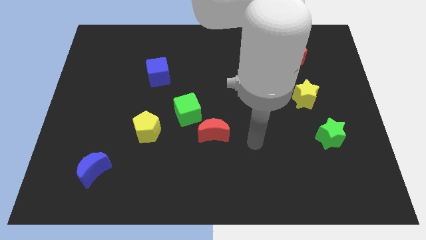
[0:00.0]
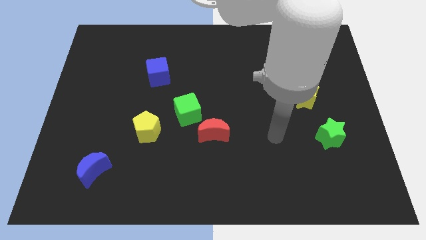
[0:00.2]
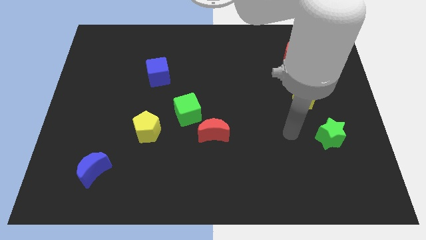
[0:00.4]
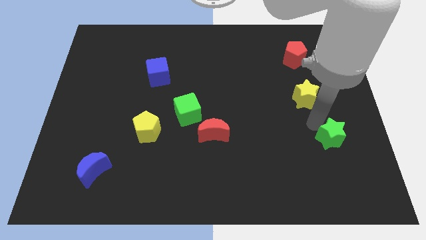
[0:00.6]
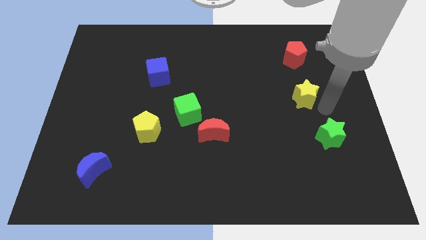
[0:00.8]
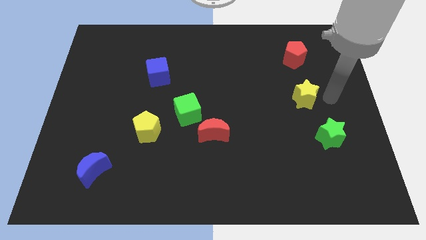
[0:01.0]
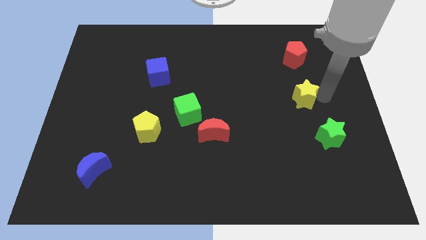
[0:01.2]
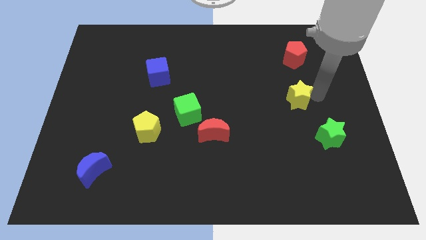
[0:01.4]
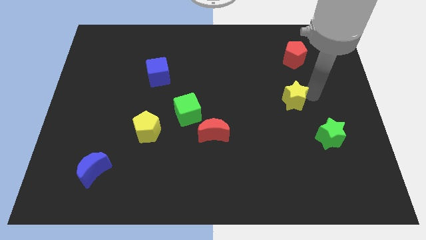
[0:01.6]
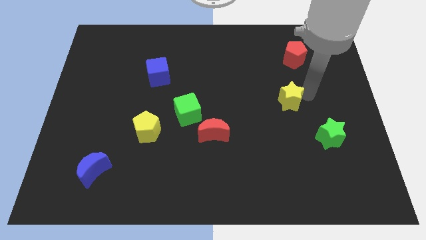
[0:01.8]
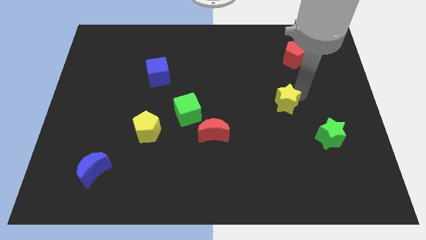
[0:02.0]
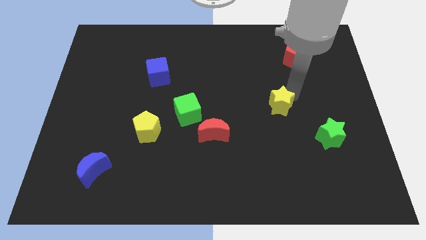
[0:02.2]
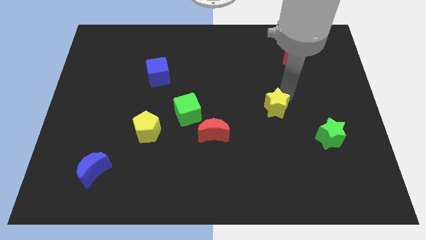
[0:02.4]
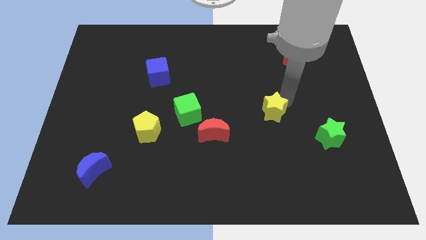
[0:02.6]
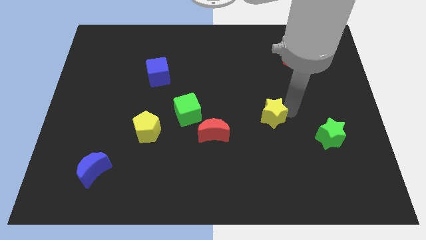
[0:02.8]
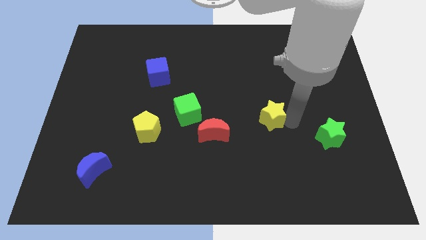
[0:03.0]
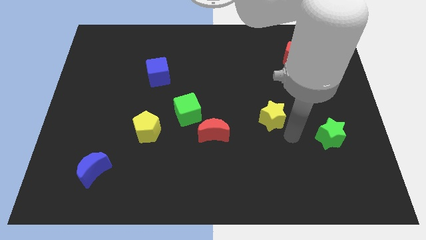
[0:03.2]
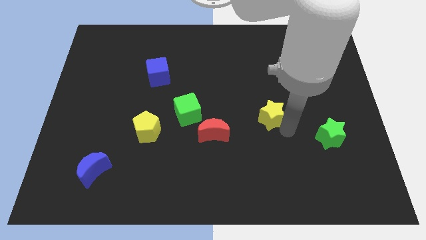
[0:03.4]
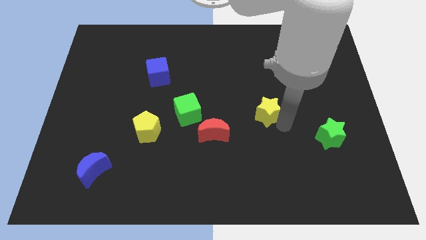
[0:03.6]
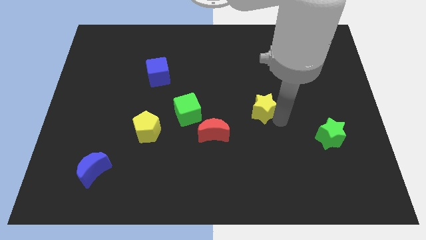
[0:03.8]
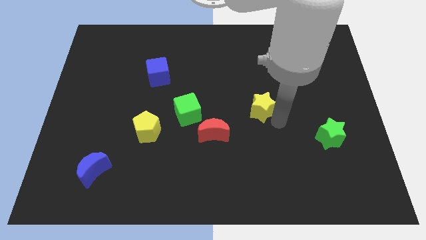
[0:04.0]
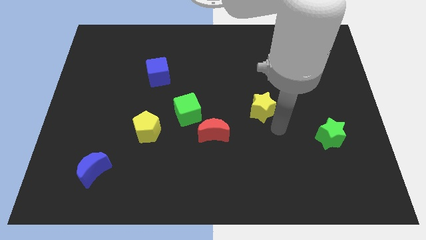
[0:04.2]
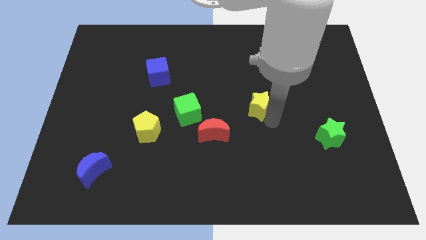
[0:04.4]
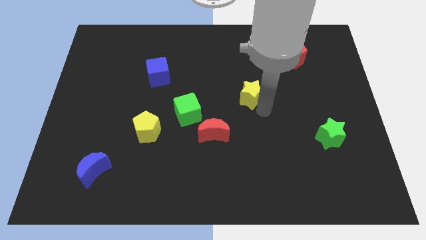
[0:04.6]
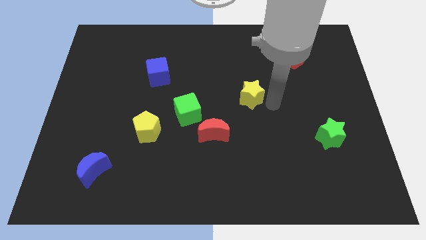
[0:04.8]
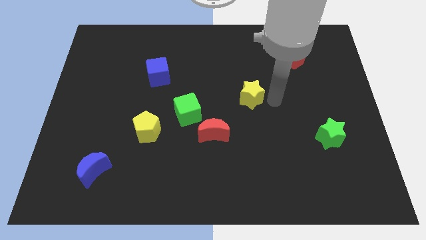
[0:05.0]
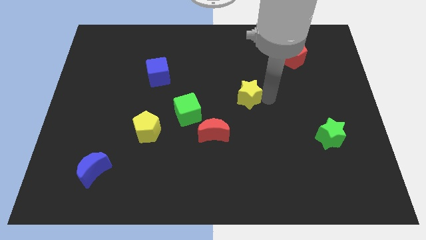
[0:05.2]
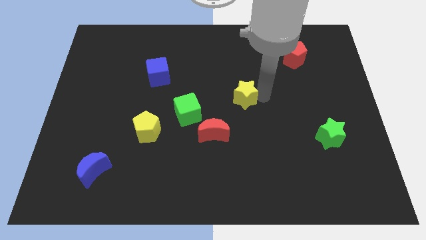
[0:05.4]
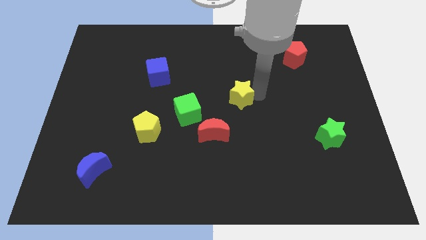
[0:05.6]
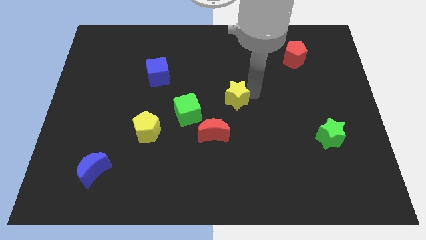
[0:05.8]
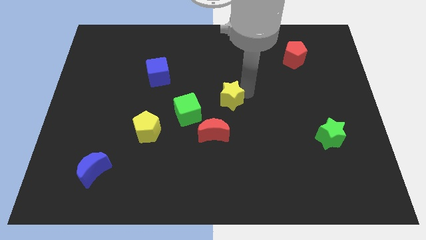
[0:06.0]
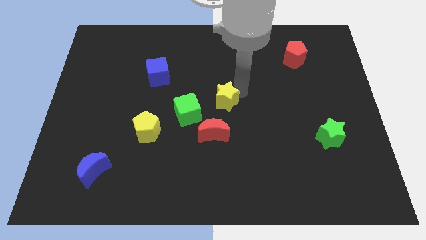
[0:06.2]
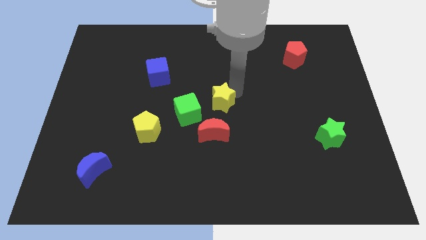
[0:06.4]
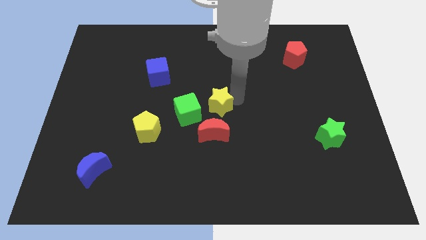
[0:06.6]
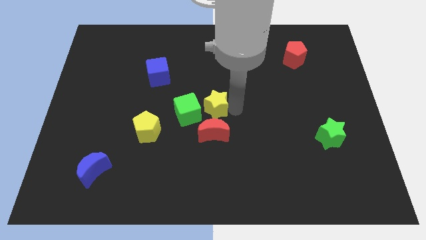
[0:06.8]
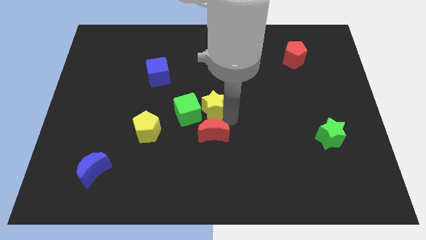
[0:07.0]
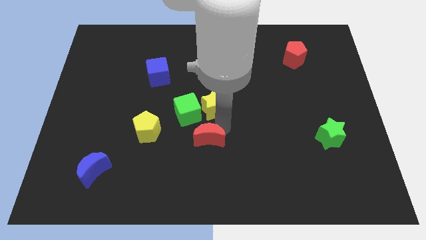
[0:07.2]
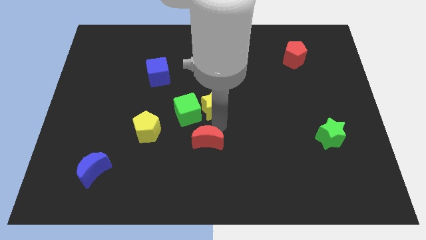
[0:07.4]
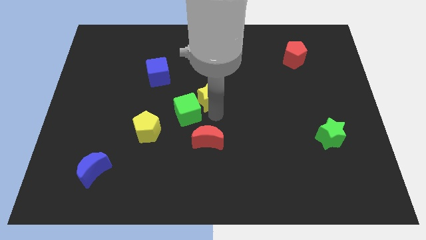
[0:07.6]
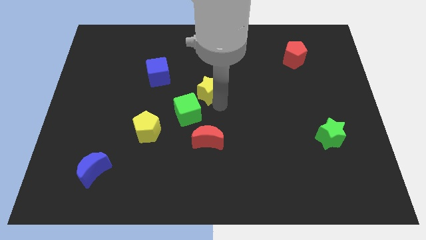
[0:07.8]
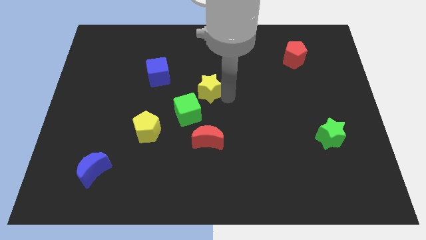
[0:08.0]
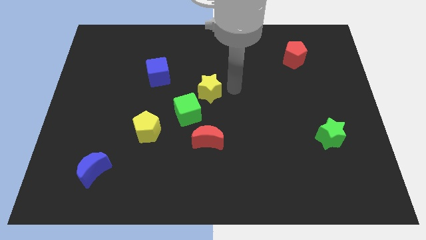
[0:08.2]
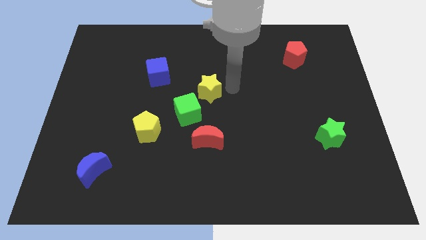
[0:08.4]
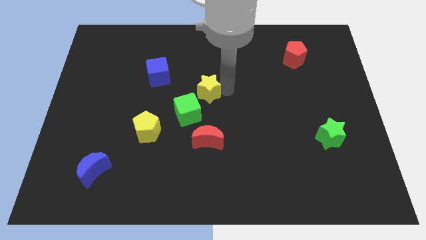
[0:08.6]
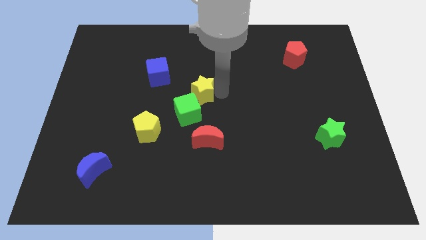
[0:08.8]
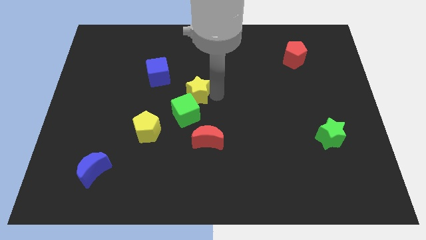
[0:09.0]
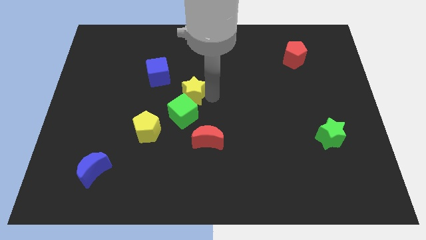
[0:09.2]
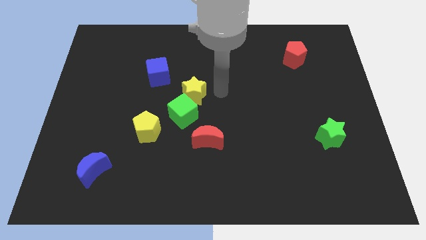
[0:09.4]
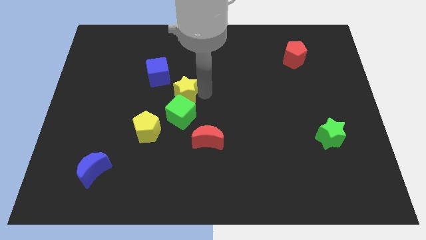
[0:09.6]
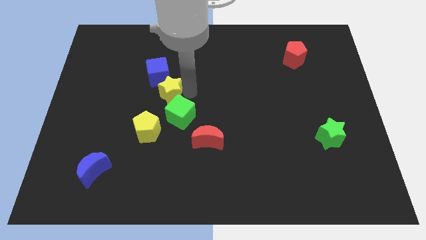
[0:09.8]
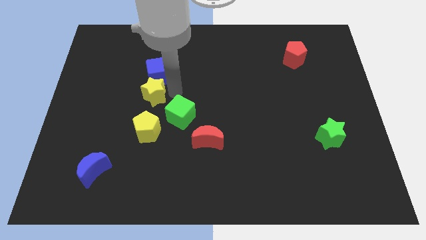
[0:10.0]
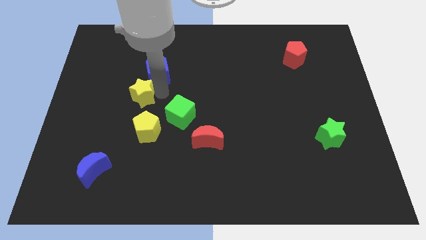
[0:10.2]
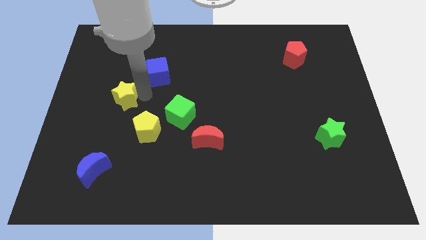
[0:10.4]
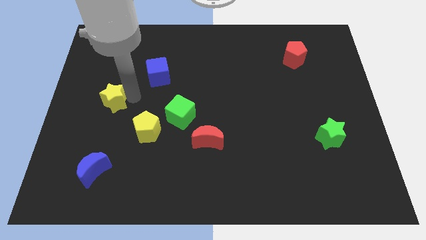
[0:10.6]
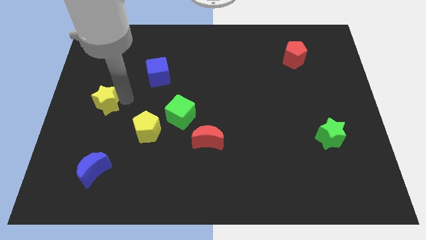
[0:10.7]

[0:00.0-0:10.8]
put the yellow star to the center left

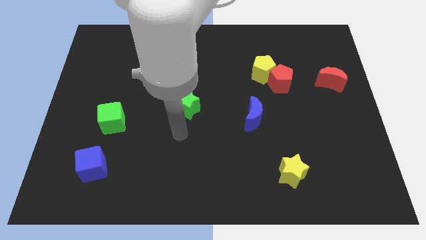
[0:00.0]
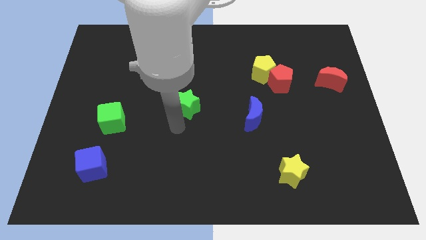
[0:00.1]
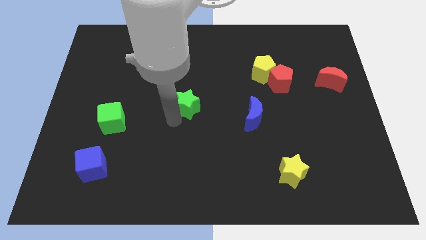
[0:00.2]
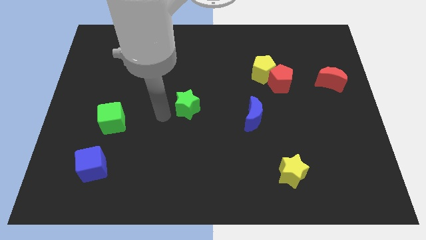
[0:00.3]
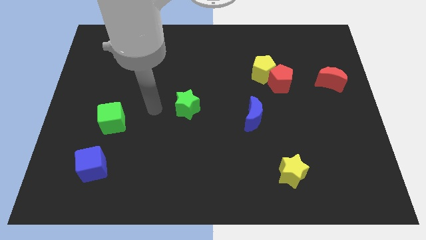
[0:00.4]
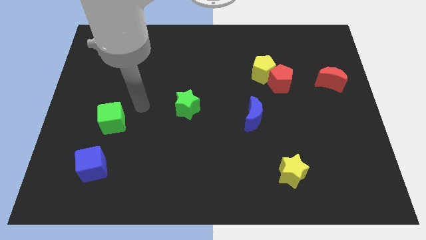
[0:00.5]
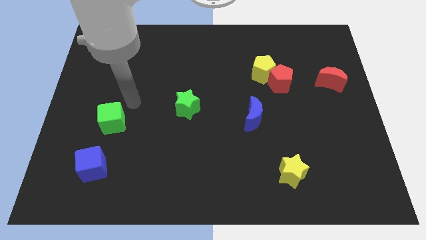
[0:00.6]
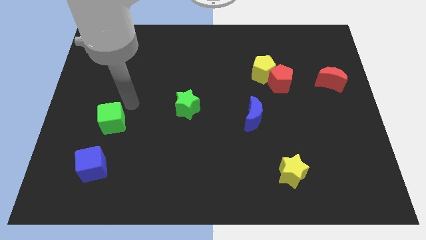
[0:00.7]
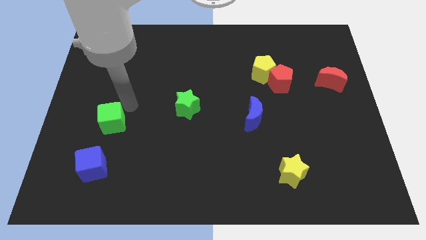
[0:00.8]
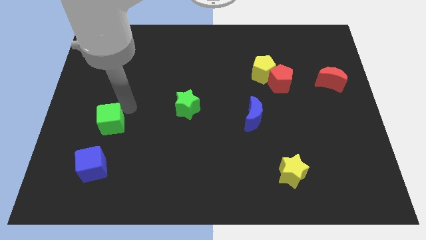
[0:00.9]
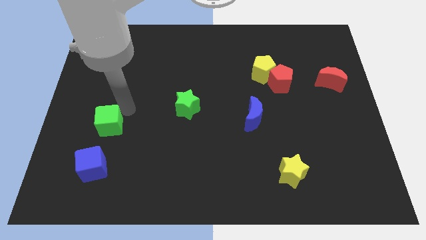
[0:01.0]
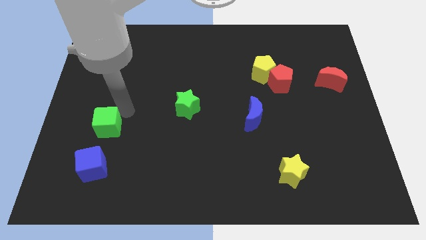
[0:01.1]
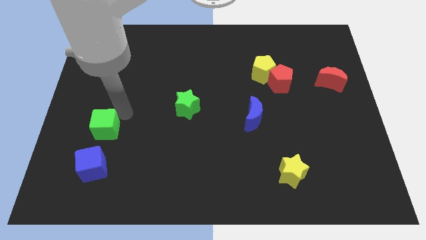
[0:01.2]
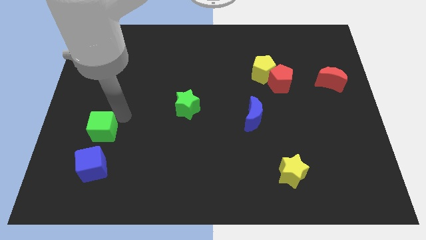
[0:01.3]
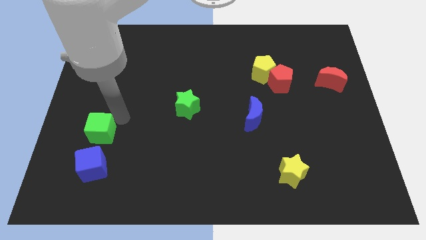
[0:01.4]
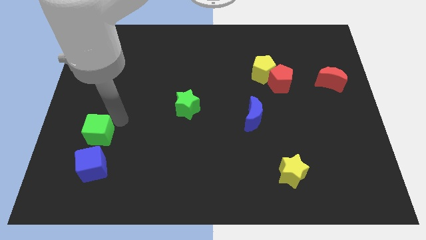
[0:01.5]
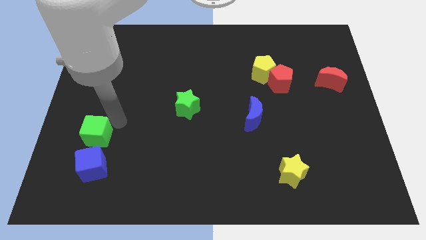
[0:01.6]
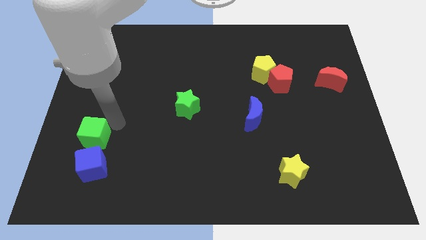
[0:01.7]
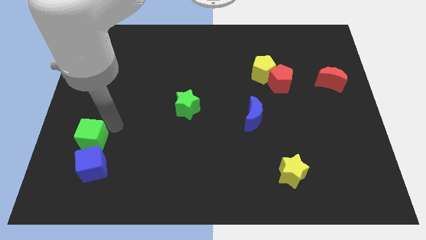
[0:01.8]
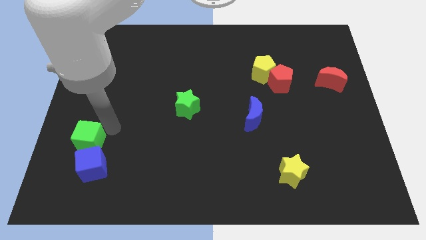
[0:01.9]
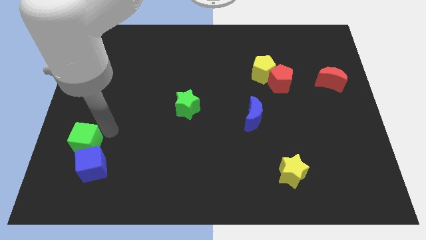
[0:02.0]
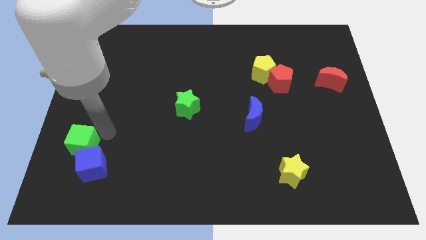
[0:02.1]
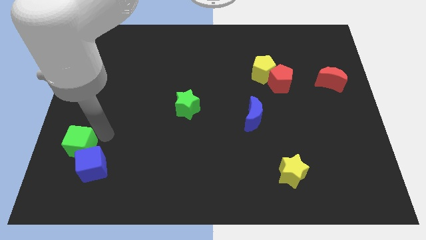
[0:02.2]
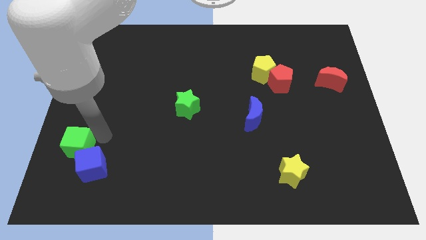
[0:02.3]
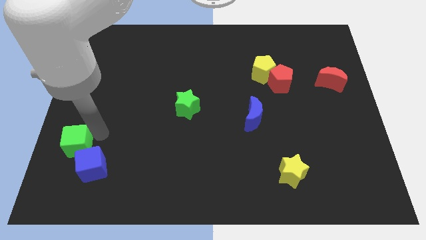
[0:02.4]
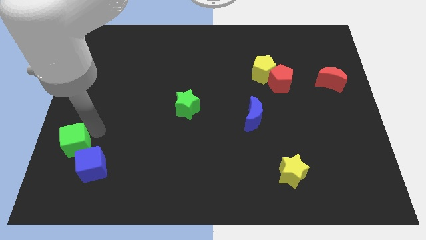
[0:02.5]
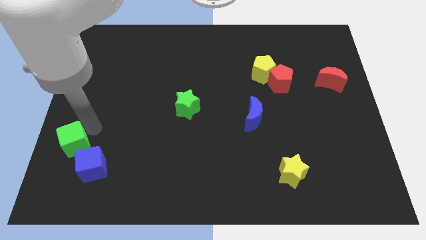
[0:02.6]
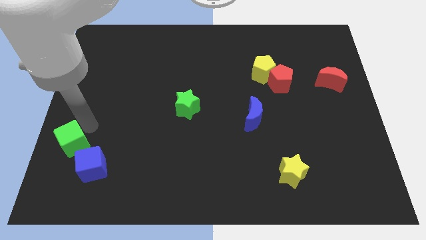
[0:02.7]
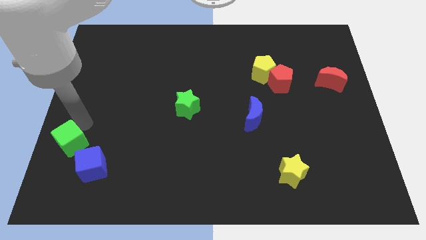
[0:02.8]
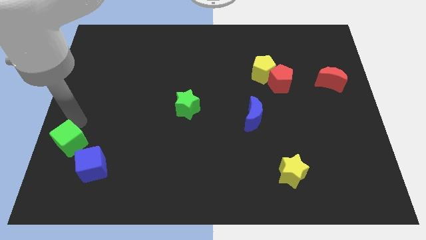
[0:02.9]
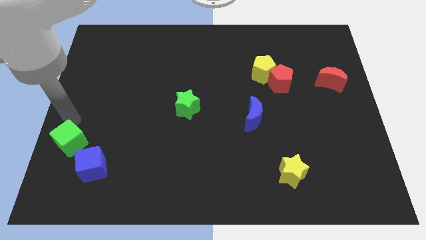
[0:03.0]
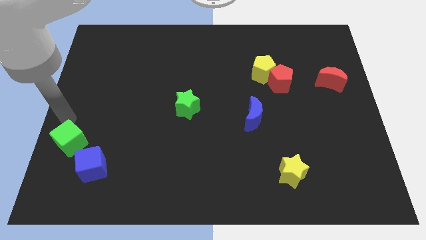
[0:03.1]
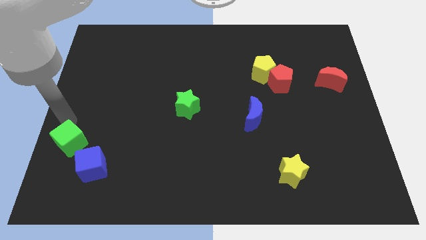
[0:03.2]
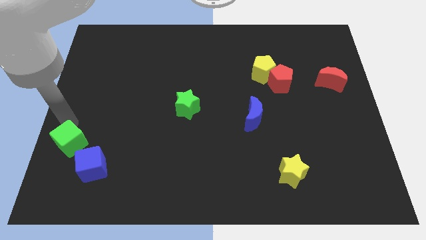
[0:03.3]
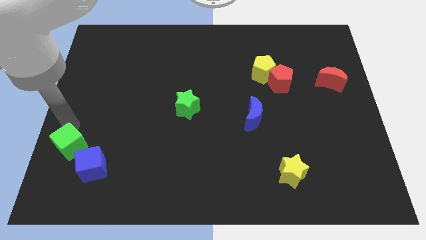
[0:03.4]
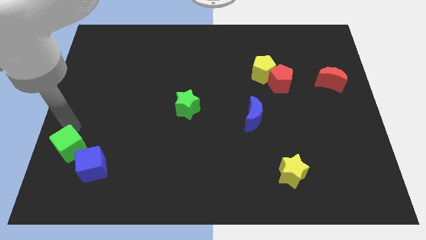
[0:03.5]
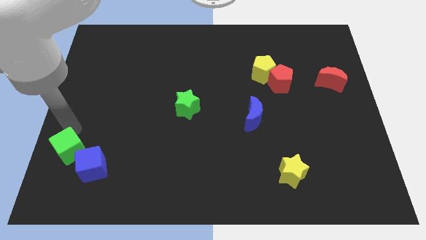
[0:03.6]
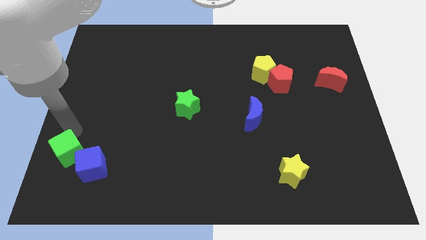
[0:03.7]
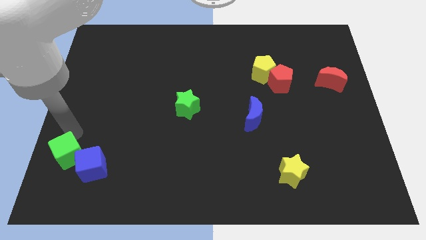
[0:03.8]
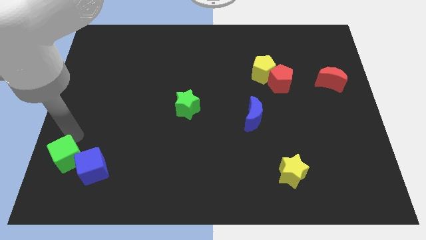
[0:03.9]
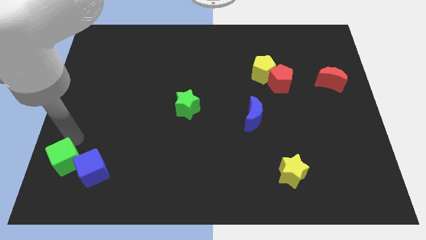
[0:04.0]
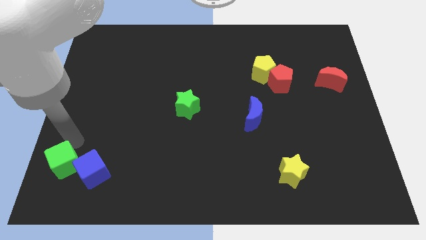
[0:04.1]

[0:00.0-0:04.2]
put the green cube to the lower left corner
